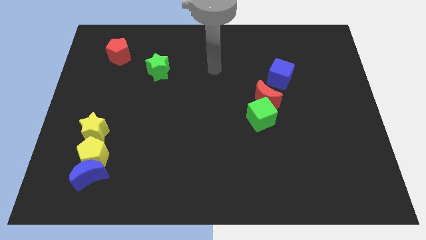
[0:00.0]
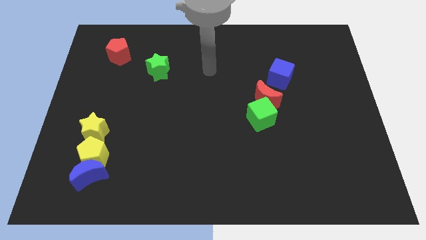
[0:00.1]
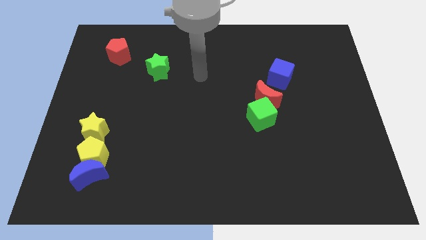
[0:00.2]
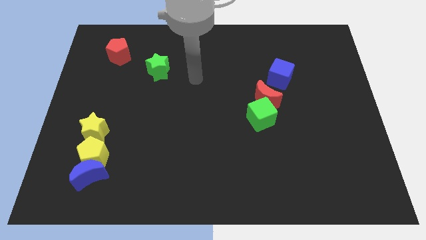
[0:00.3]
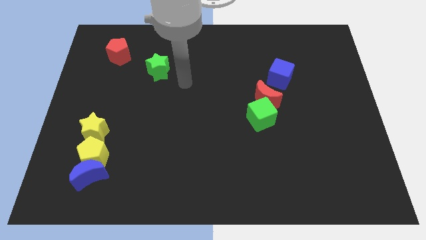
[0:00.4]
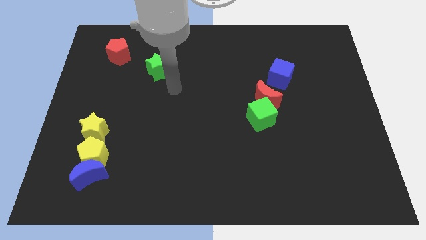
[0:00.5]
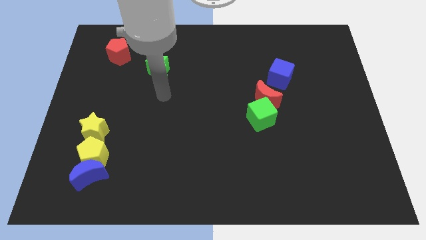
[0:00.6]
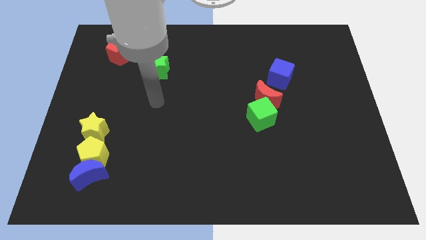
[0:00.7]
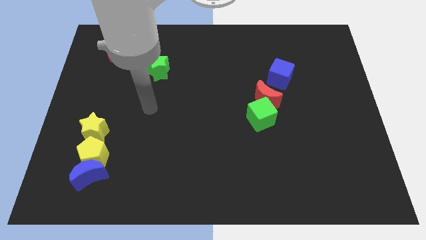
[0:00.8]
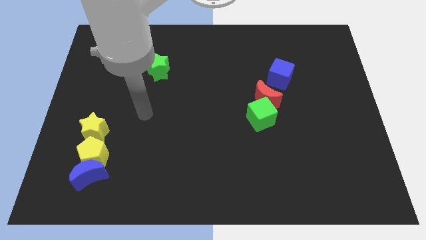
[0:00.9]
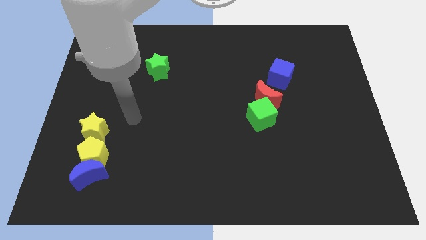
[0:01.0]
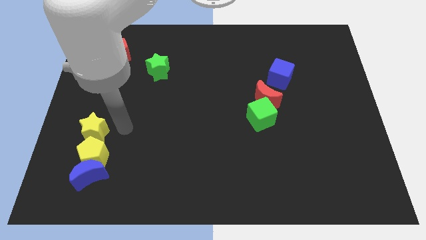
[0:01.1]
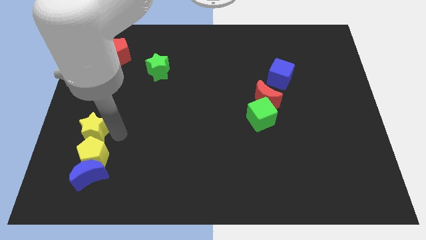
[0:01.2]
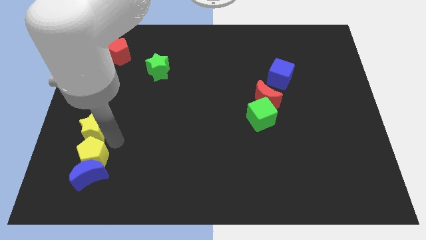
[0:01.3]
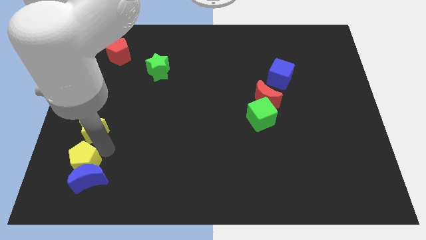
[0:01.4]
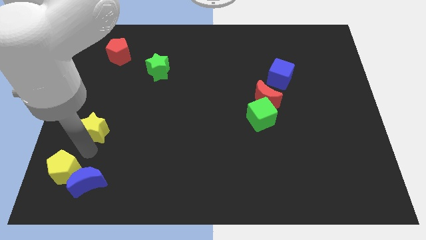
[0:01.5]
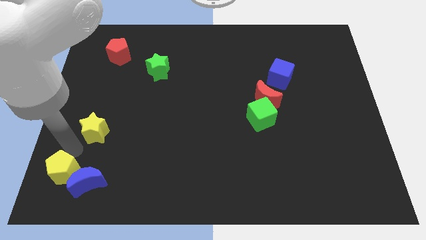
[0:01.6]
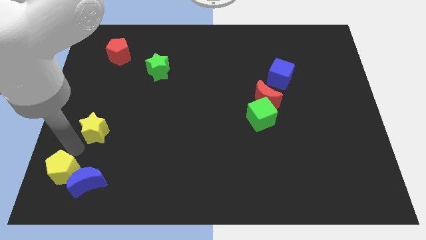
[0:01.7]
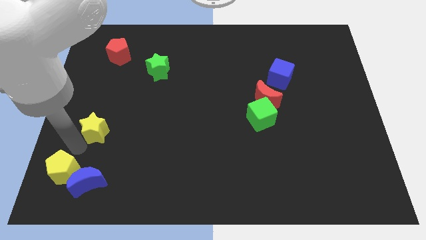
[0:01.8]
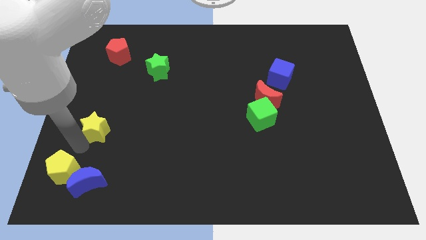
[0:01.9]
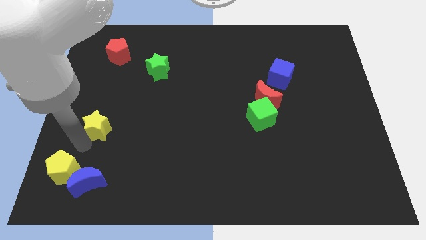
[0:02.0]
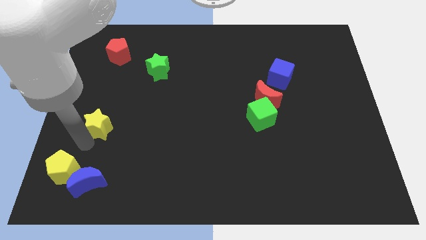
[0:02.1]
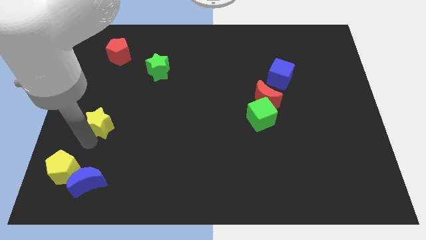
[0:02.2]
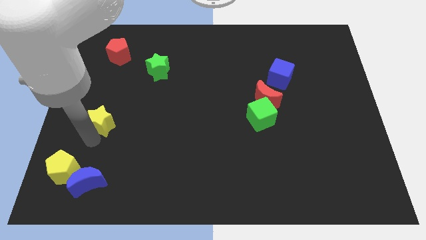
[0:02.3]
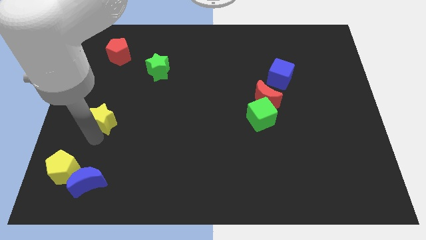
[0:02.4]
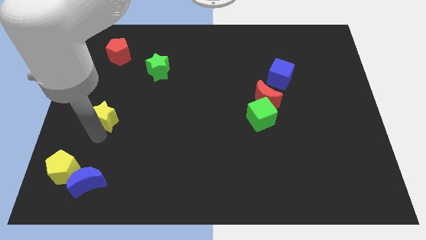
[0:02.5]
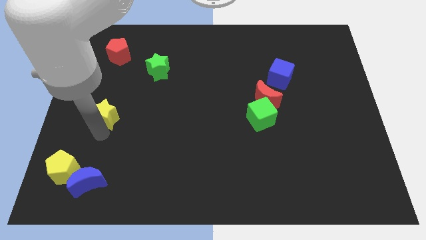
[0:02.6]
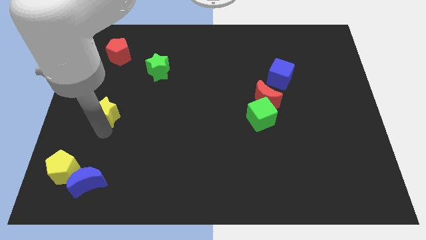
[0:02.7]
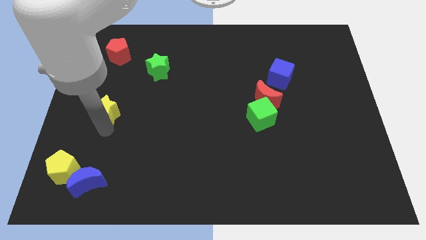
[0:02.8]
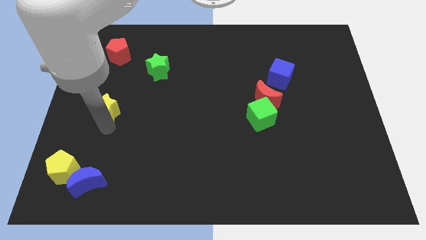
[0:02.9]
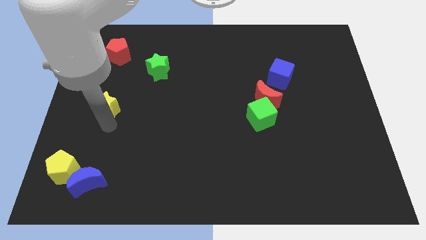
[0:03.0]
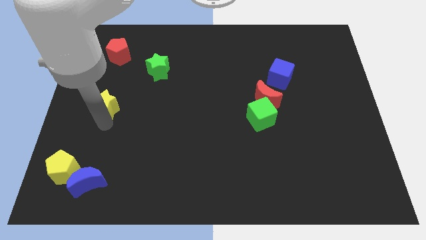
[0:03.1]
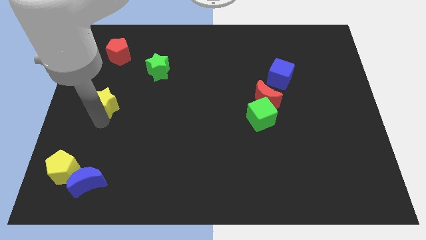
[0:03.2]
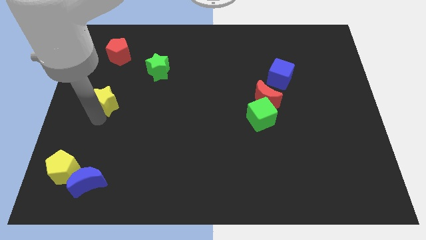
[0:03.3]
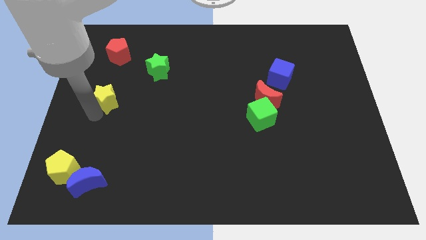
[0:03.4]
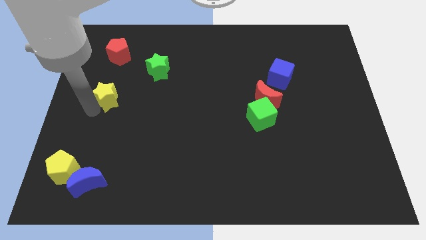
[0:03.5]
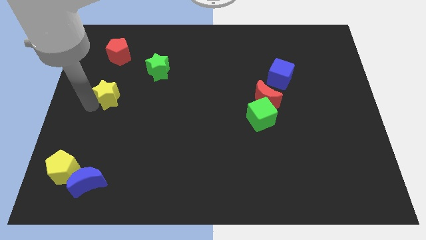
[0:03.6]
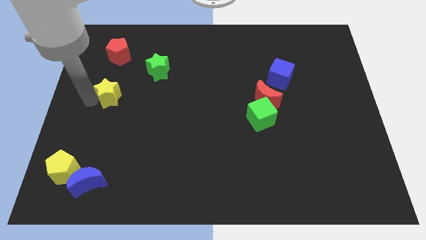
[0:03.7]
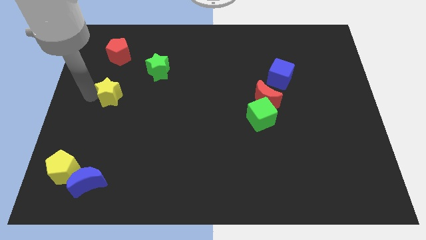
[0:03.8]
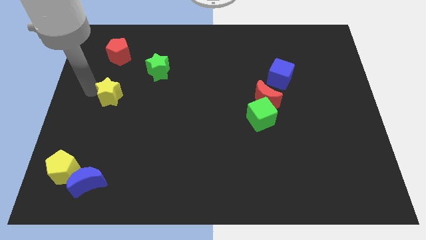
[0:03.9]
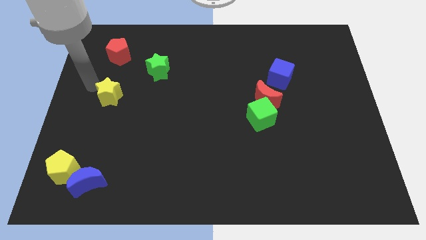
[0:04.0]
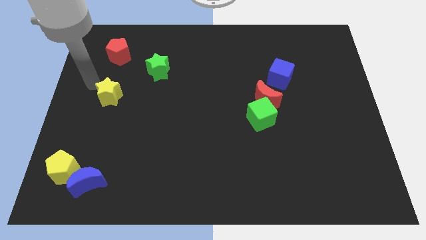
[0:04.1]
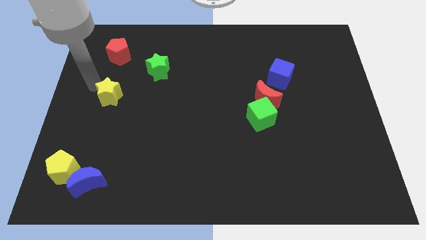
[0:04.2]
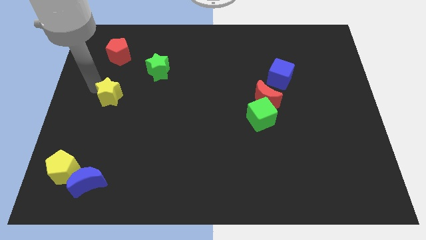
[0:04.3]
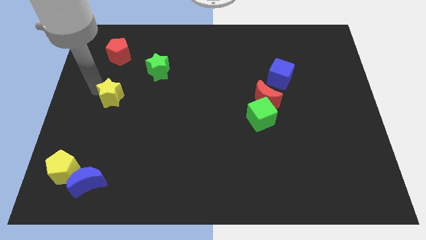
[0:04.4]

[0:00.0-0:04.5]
slide the yellow star slightly upwards and then to the right

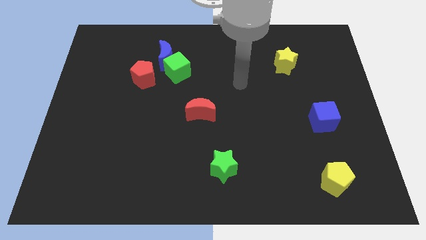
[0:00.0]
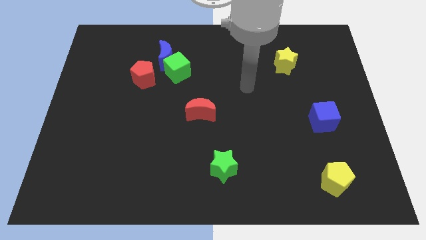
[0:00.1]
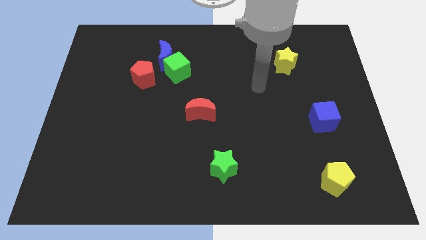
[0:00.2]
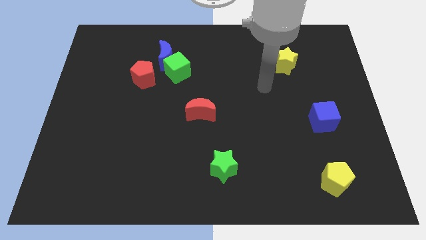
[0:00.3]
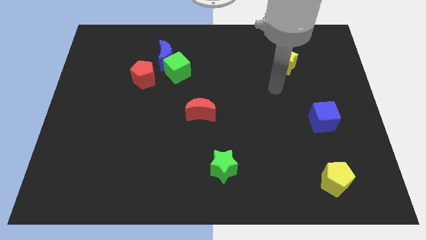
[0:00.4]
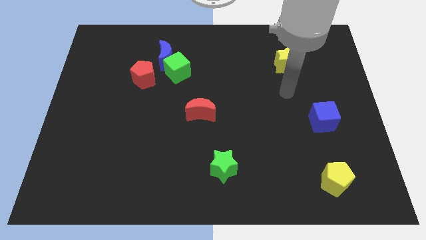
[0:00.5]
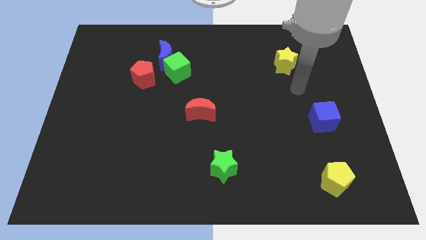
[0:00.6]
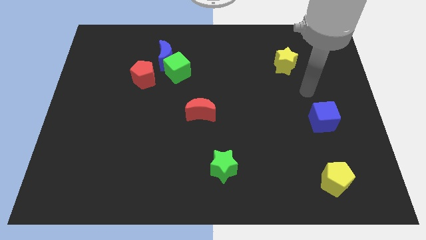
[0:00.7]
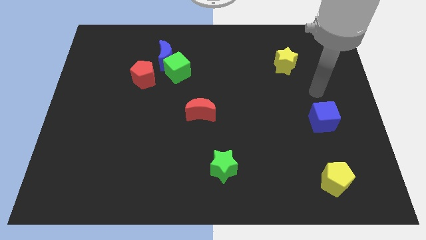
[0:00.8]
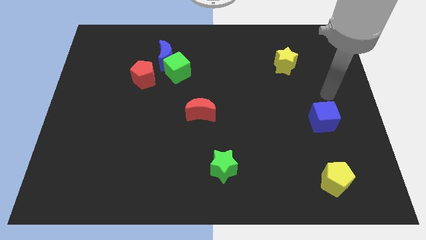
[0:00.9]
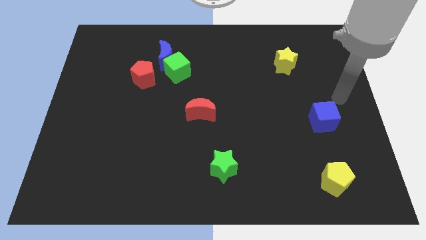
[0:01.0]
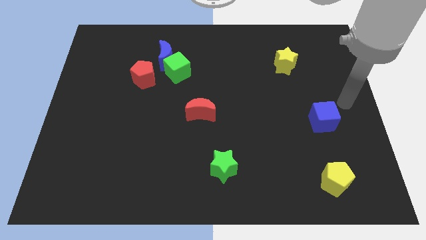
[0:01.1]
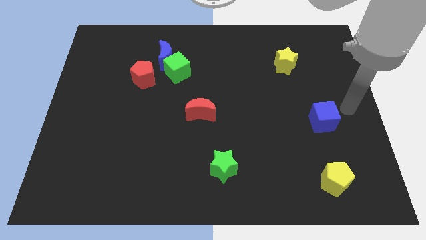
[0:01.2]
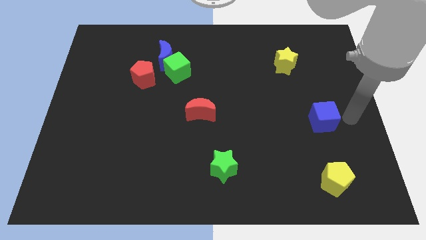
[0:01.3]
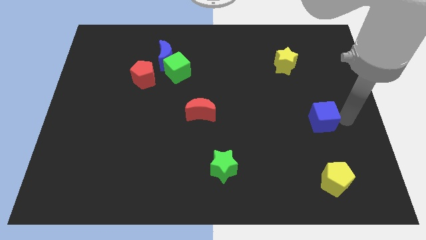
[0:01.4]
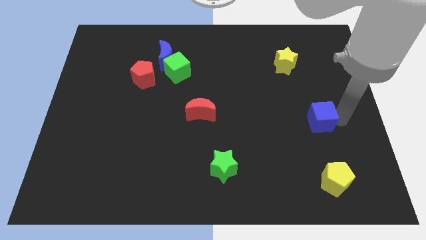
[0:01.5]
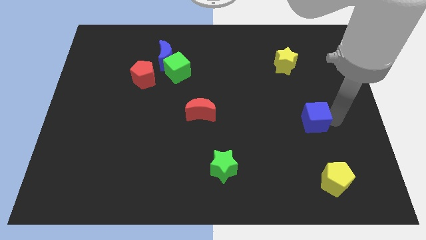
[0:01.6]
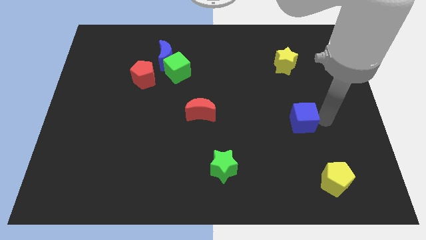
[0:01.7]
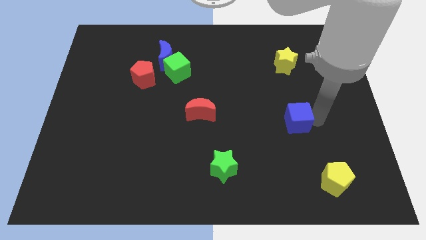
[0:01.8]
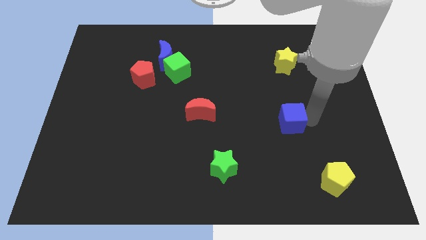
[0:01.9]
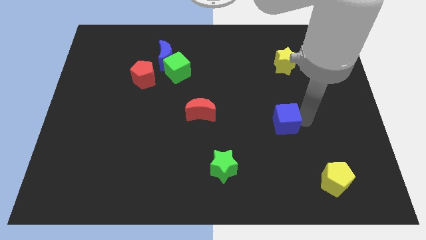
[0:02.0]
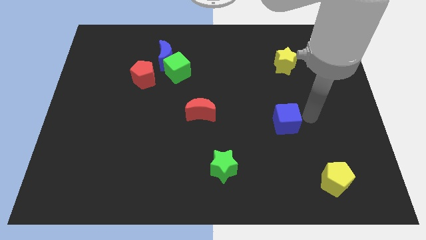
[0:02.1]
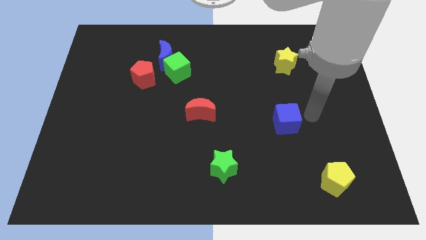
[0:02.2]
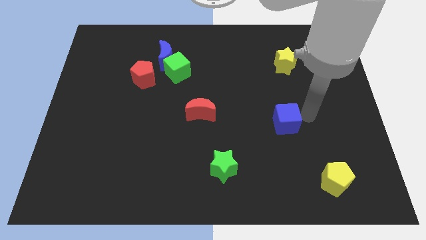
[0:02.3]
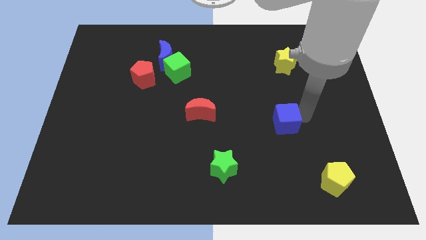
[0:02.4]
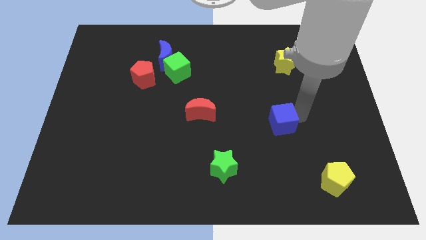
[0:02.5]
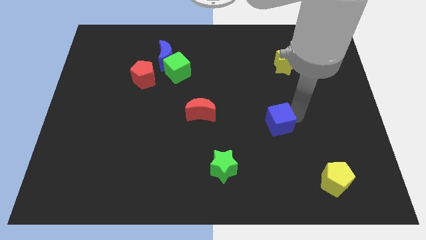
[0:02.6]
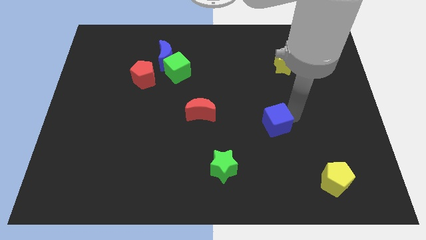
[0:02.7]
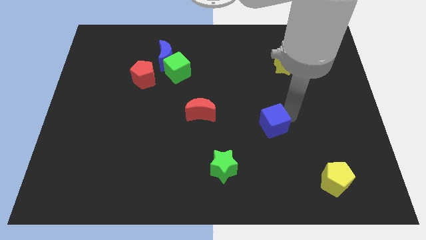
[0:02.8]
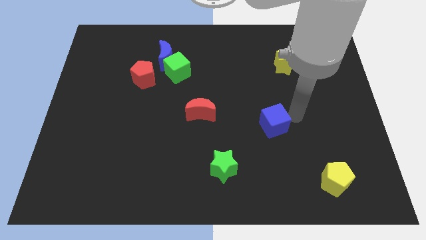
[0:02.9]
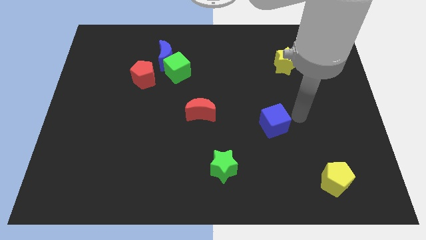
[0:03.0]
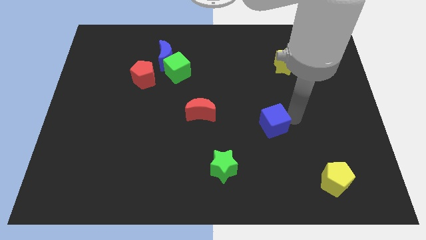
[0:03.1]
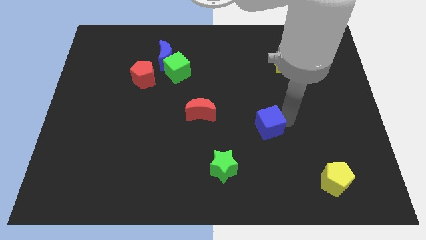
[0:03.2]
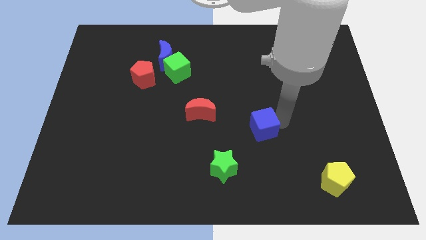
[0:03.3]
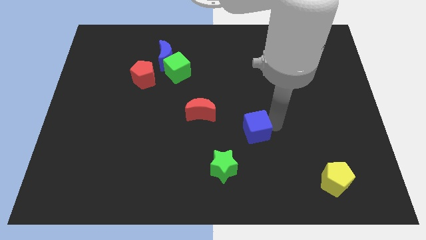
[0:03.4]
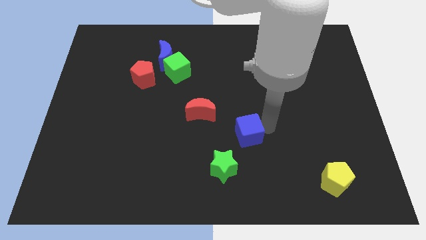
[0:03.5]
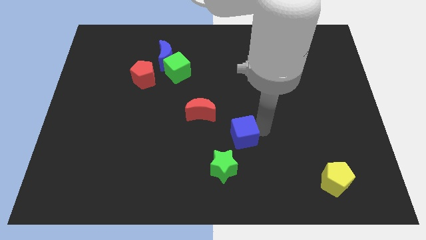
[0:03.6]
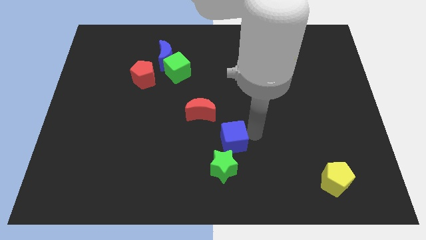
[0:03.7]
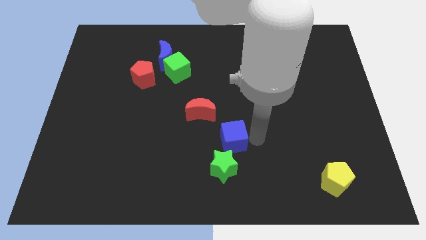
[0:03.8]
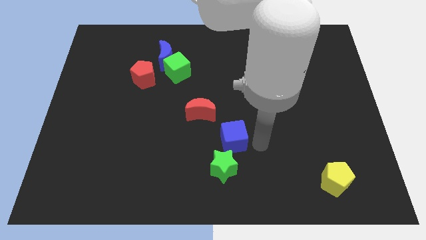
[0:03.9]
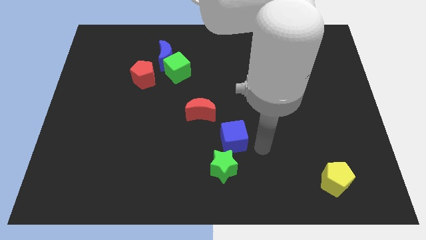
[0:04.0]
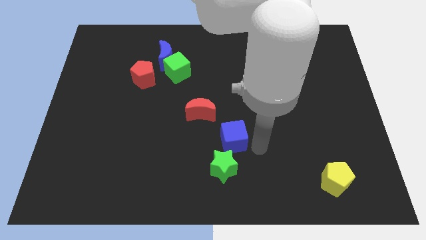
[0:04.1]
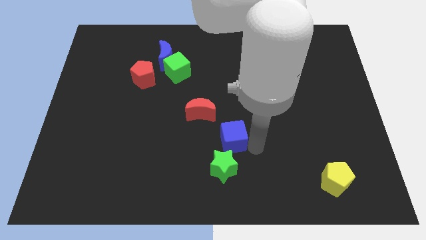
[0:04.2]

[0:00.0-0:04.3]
push the blue cube to the left
